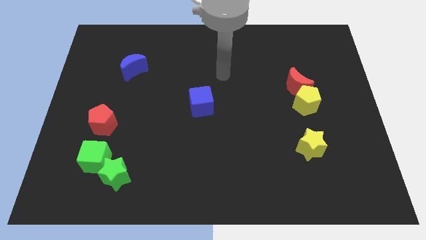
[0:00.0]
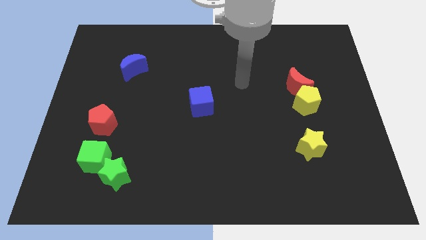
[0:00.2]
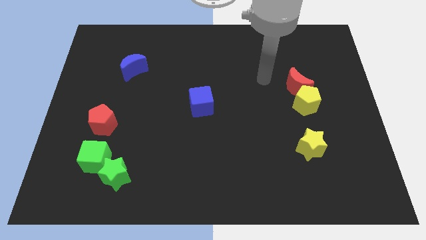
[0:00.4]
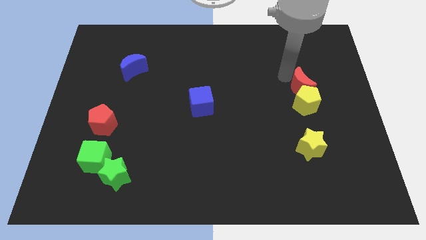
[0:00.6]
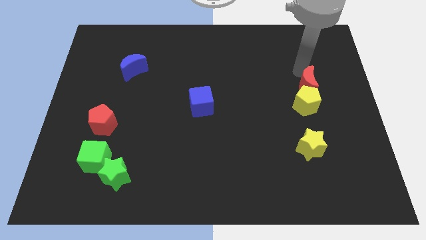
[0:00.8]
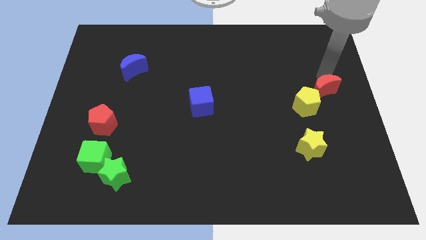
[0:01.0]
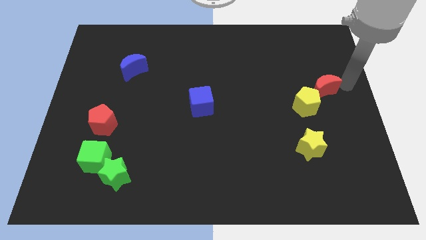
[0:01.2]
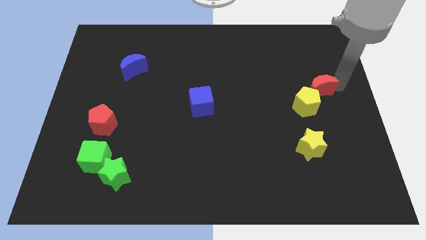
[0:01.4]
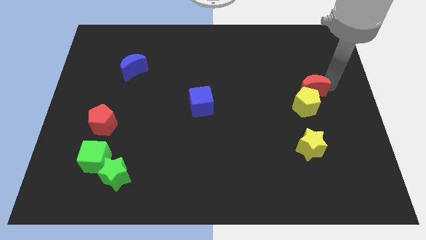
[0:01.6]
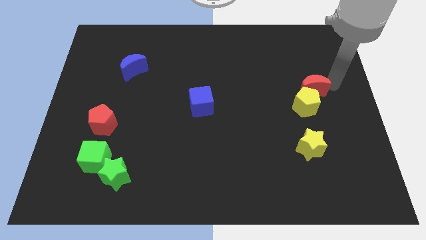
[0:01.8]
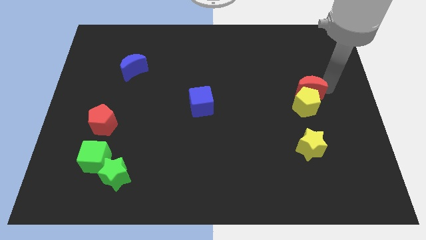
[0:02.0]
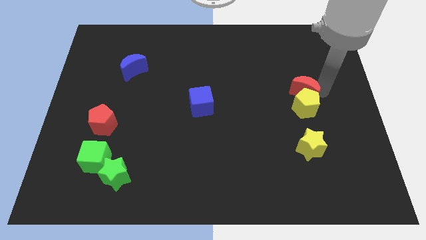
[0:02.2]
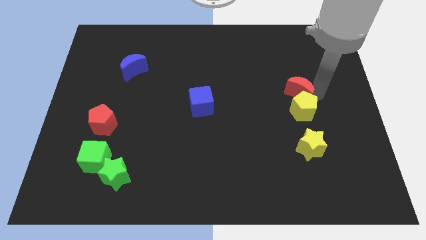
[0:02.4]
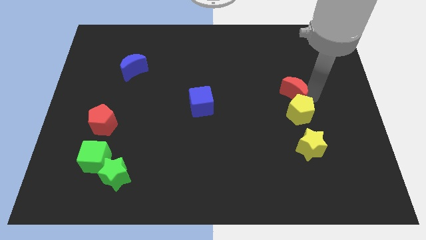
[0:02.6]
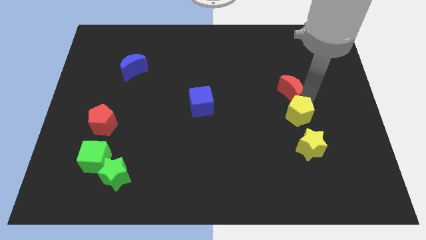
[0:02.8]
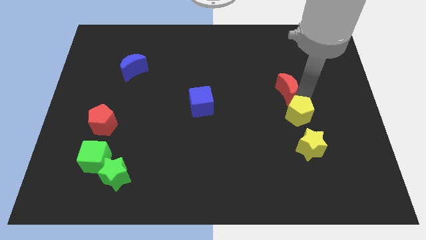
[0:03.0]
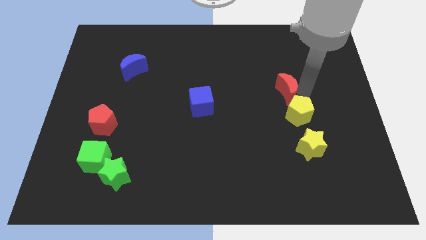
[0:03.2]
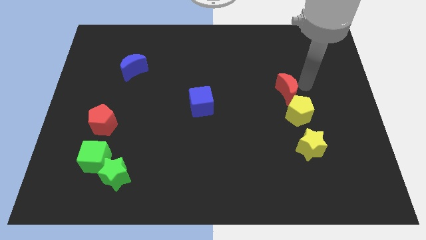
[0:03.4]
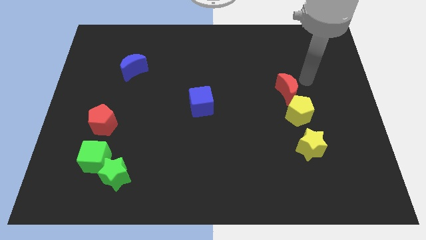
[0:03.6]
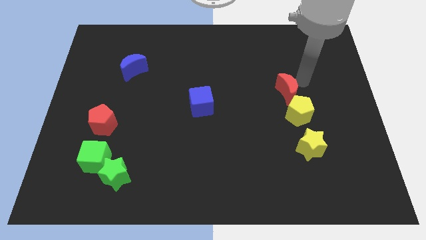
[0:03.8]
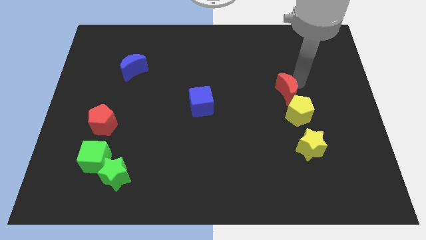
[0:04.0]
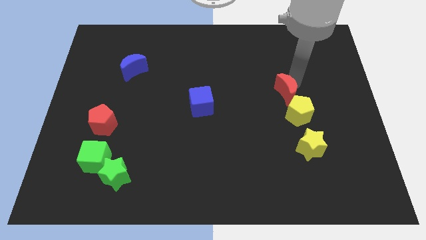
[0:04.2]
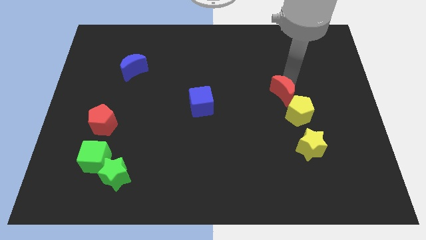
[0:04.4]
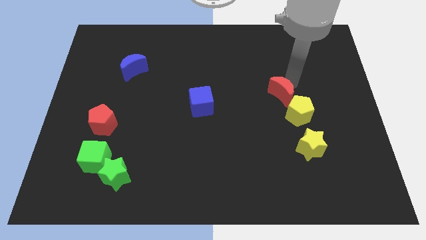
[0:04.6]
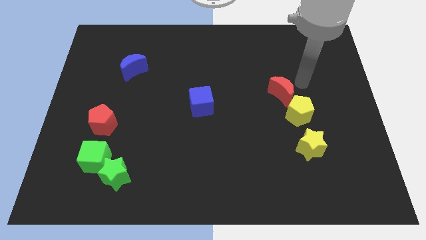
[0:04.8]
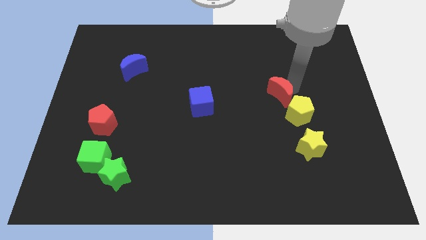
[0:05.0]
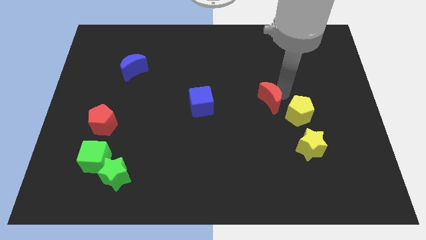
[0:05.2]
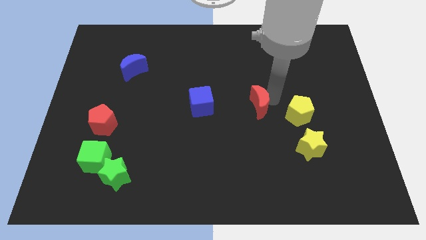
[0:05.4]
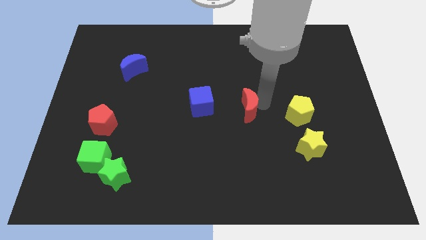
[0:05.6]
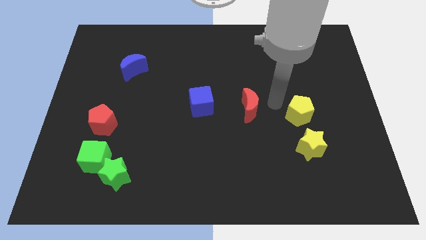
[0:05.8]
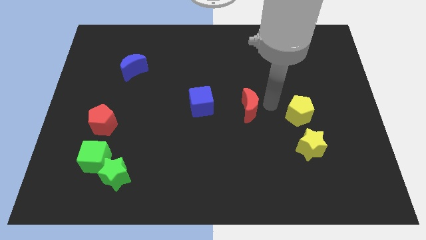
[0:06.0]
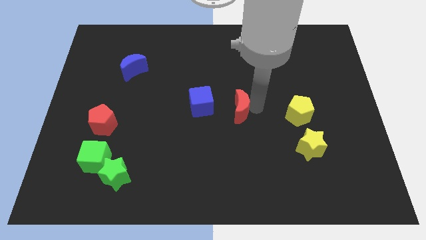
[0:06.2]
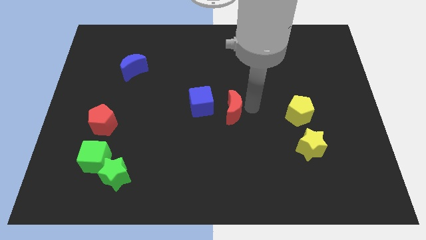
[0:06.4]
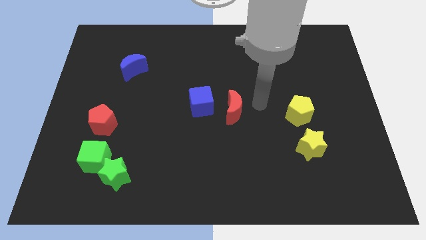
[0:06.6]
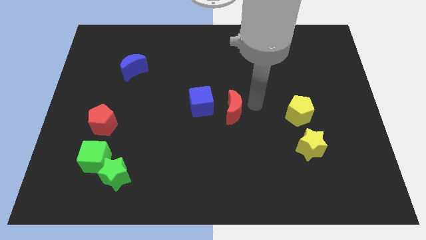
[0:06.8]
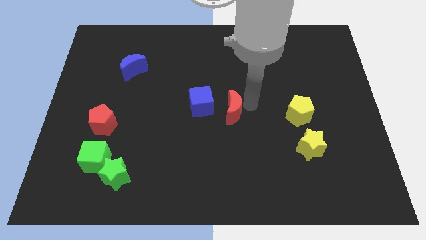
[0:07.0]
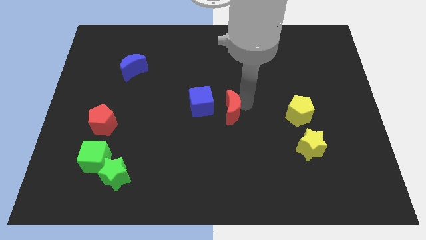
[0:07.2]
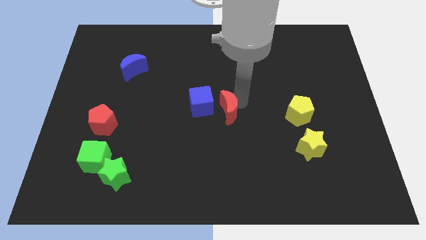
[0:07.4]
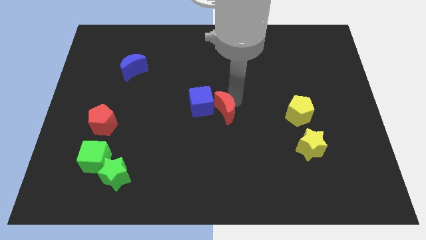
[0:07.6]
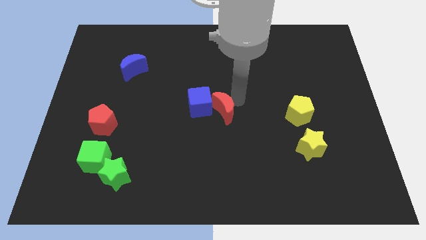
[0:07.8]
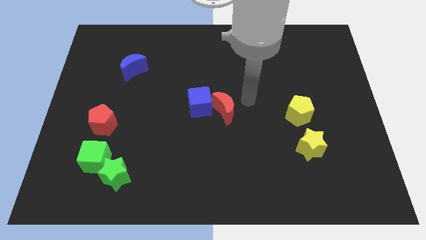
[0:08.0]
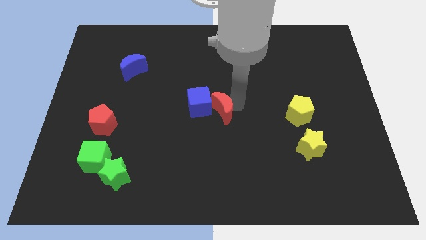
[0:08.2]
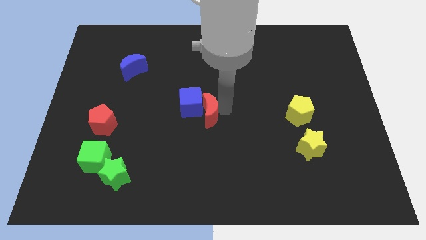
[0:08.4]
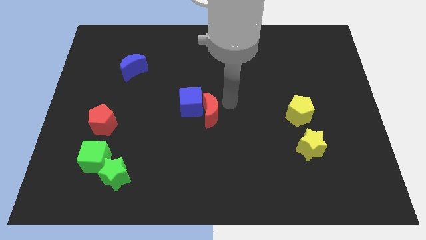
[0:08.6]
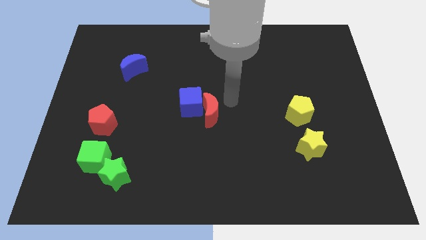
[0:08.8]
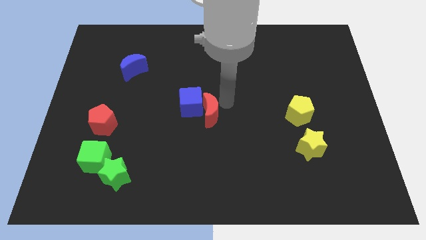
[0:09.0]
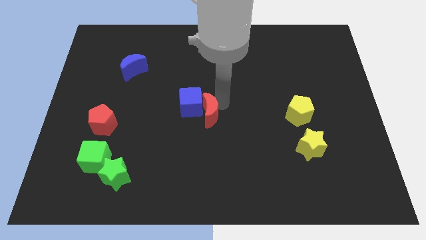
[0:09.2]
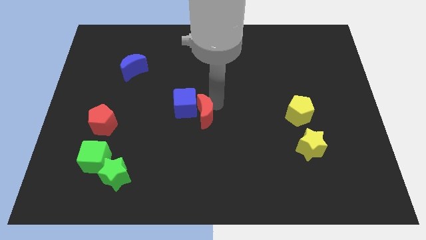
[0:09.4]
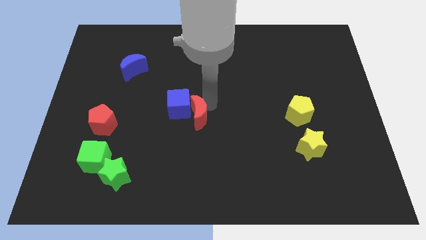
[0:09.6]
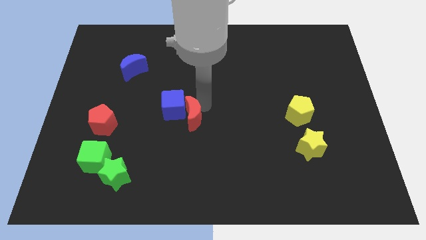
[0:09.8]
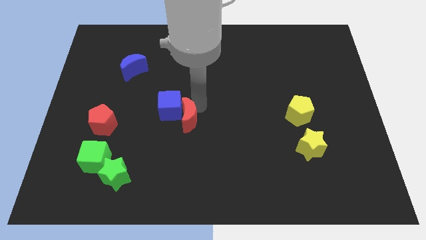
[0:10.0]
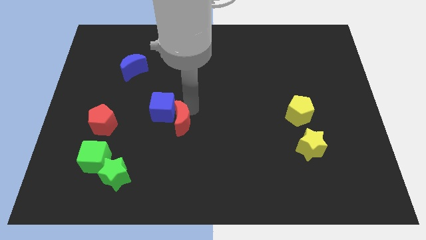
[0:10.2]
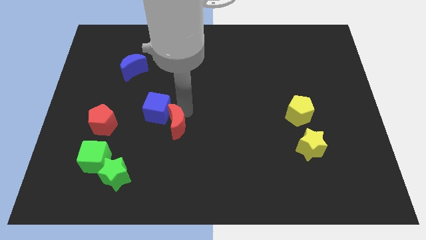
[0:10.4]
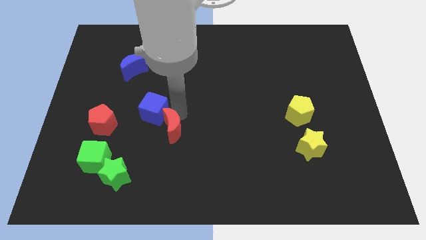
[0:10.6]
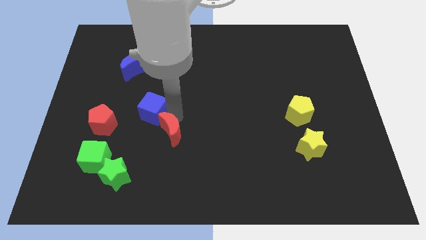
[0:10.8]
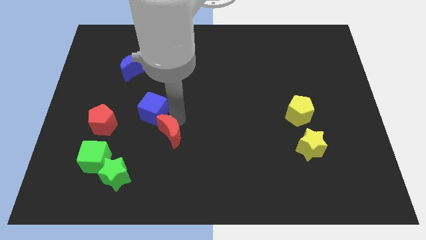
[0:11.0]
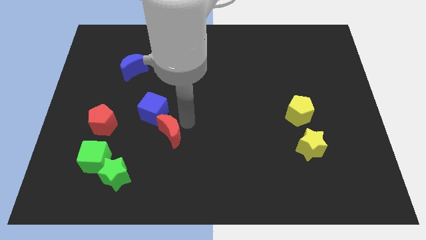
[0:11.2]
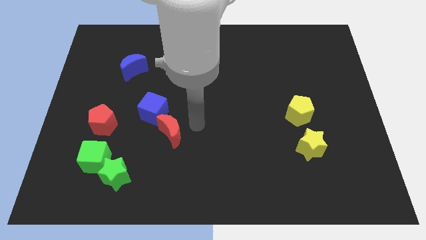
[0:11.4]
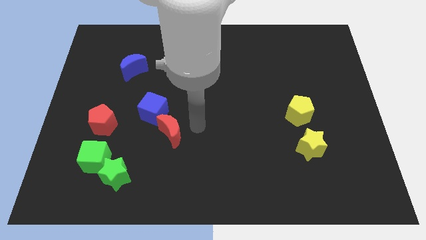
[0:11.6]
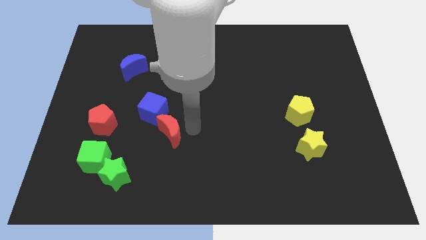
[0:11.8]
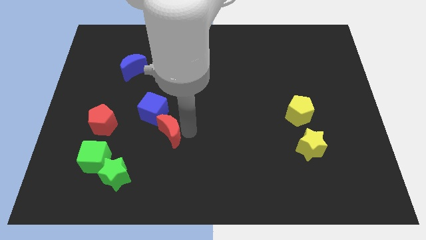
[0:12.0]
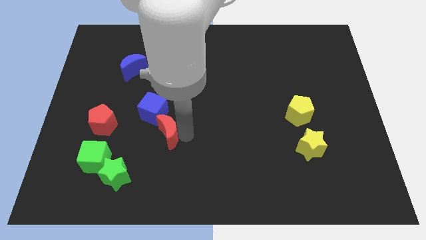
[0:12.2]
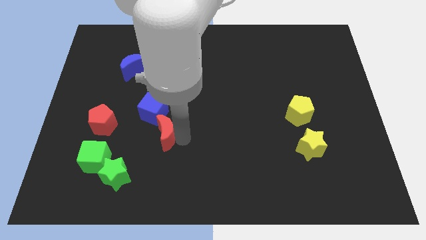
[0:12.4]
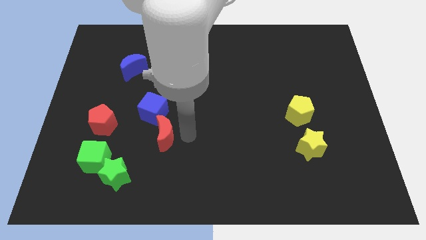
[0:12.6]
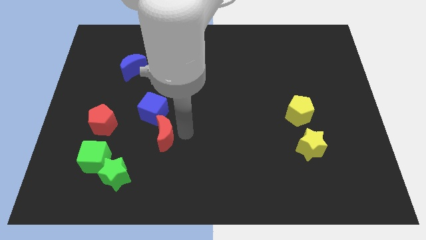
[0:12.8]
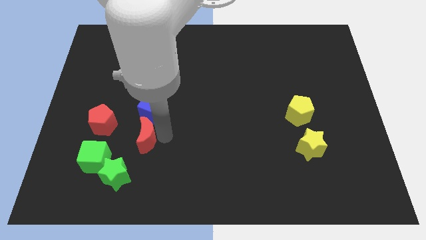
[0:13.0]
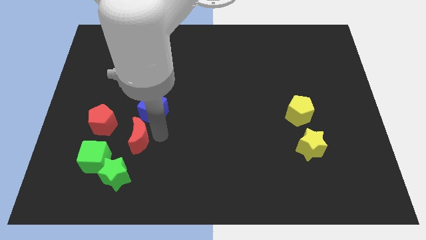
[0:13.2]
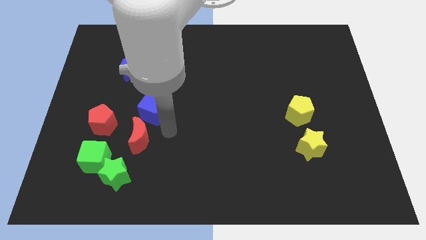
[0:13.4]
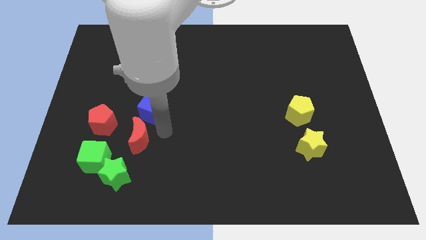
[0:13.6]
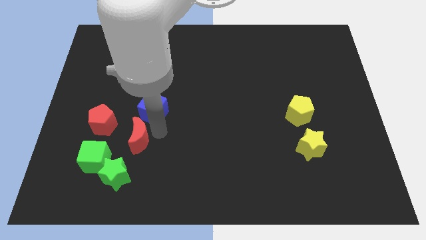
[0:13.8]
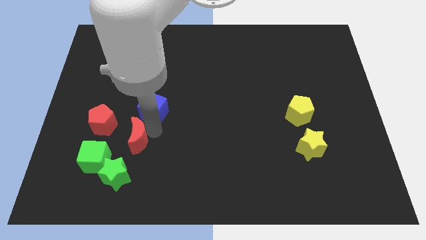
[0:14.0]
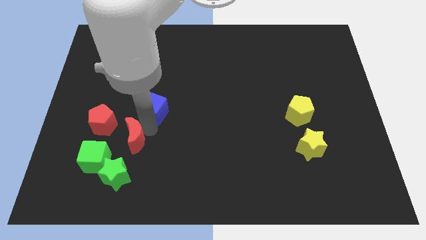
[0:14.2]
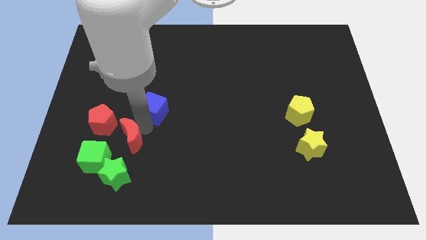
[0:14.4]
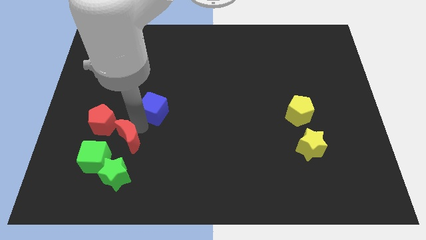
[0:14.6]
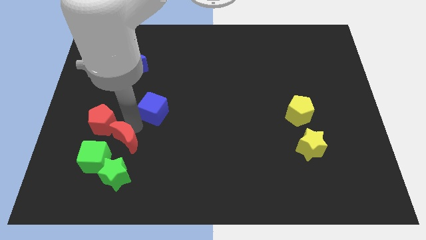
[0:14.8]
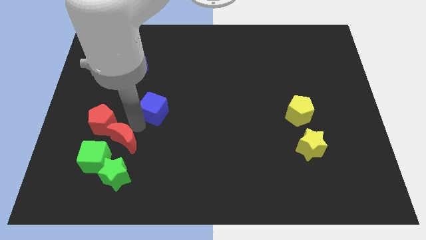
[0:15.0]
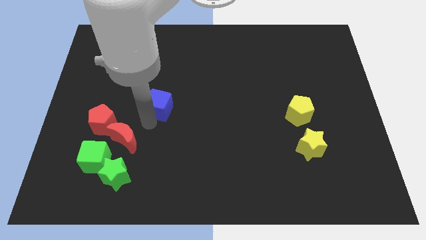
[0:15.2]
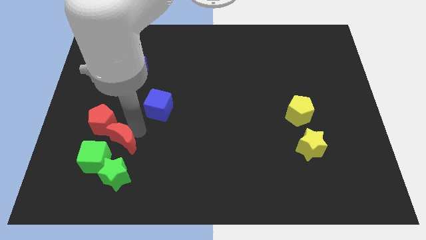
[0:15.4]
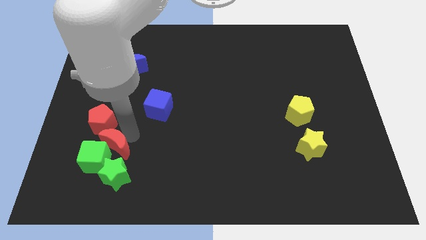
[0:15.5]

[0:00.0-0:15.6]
push the red moon next to the green cube

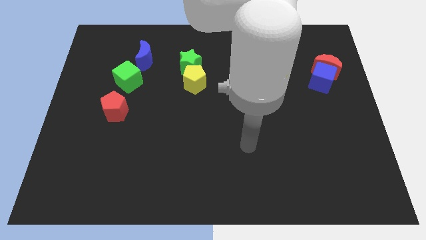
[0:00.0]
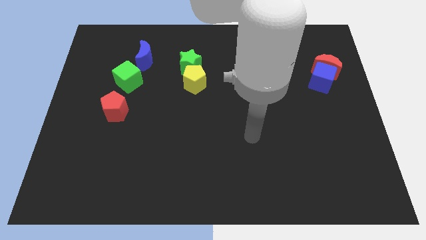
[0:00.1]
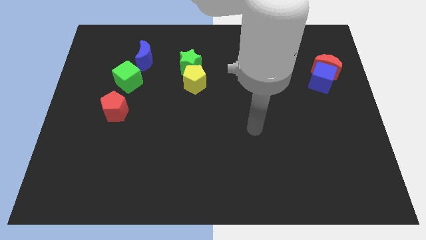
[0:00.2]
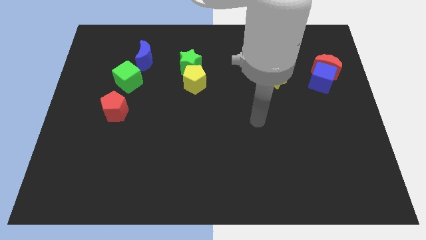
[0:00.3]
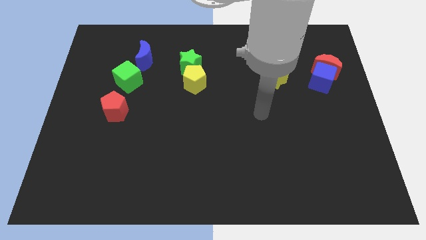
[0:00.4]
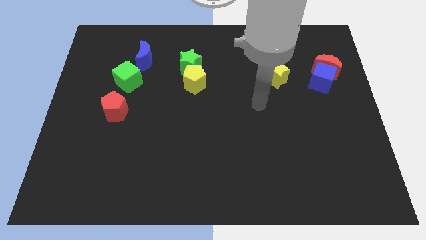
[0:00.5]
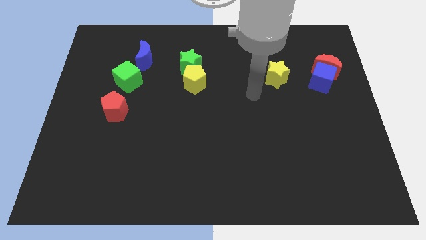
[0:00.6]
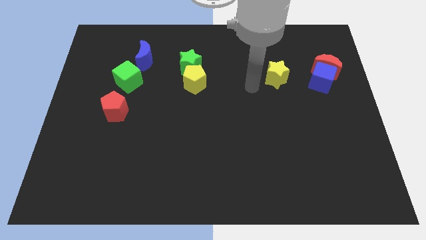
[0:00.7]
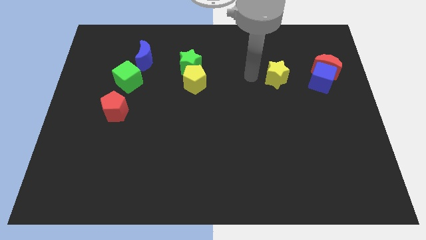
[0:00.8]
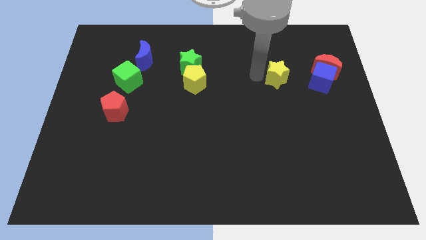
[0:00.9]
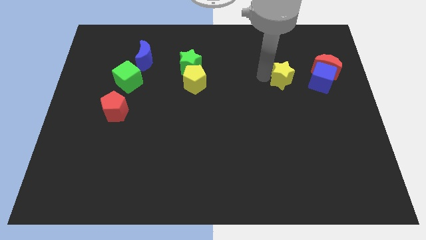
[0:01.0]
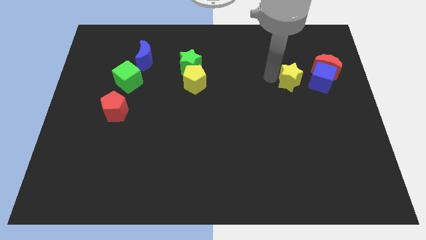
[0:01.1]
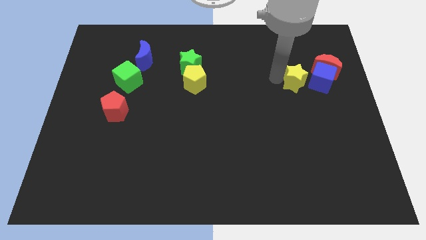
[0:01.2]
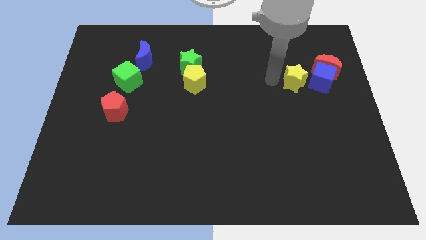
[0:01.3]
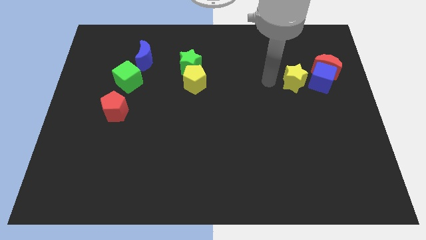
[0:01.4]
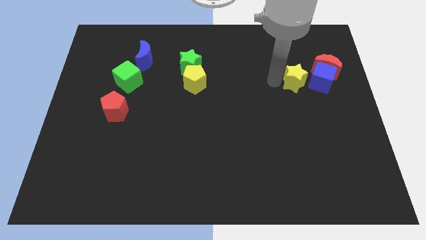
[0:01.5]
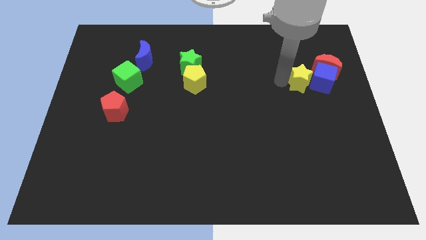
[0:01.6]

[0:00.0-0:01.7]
put the yellow star towards the blue cube
